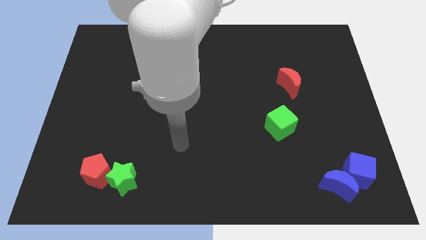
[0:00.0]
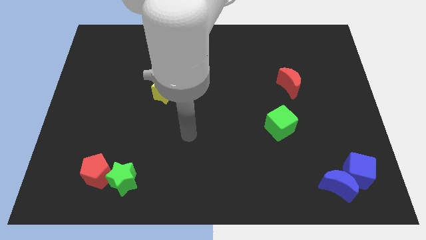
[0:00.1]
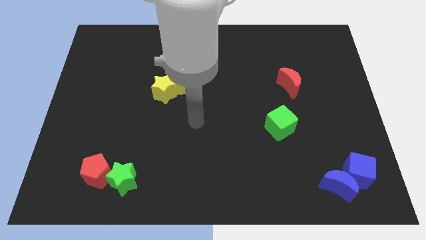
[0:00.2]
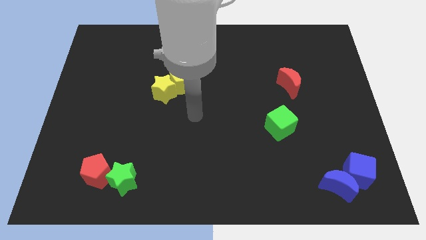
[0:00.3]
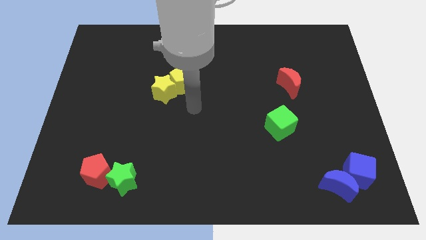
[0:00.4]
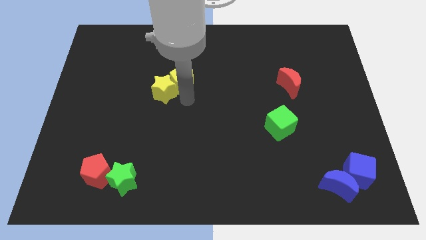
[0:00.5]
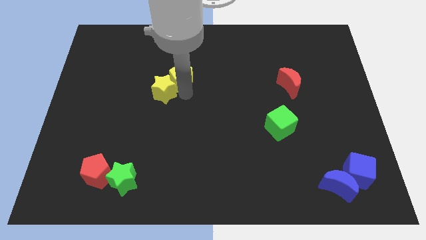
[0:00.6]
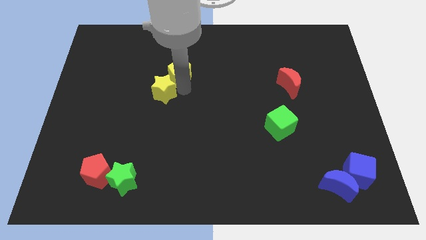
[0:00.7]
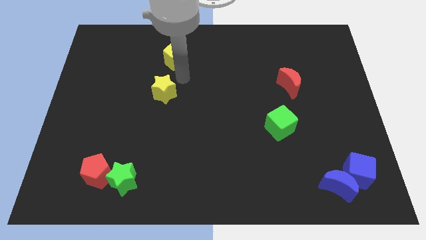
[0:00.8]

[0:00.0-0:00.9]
move the yellow star away from the yellow pentagon

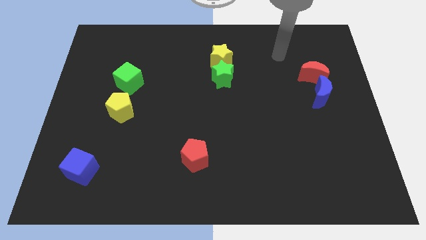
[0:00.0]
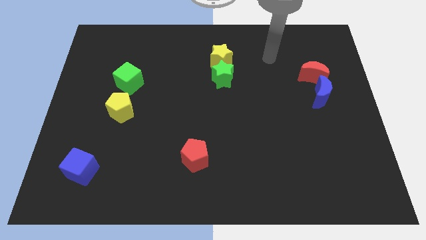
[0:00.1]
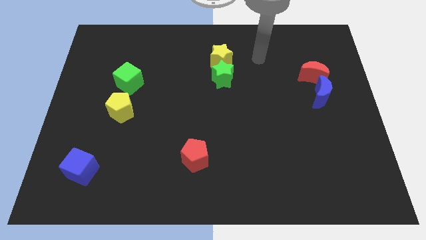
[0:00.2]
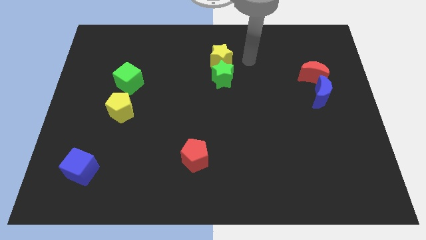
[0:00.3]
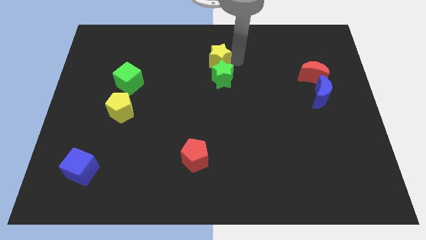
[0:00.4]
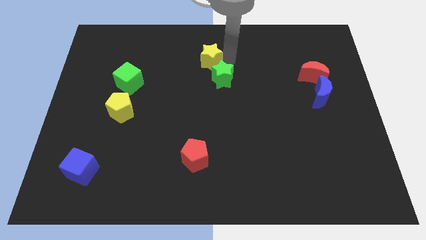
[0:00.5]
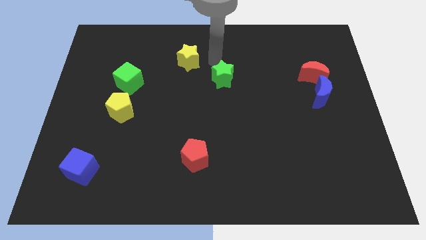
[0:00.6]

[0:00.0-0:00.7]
separate the green star from the yellow star

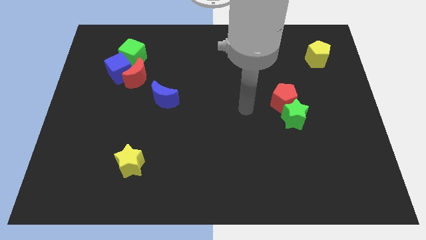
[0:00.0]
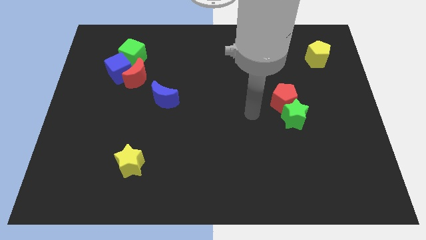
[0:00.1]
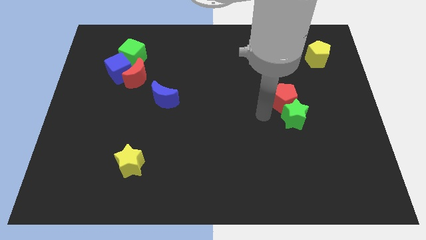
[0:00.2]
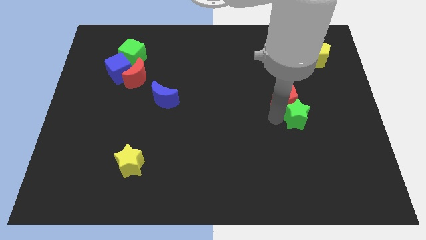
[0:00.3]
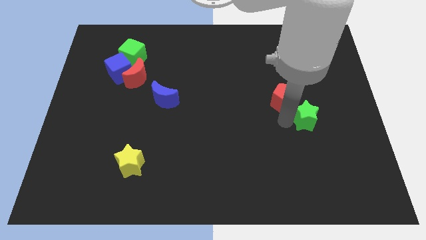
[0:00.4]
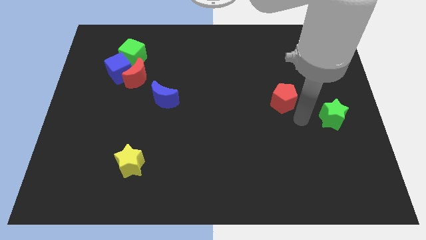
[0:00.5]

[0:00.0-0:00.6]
pull the red pentagon apart from the green star

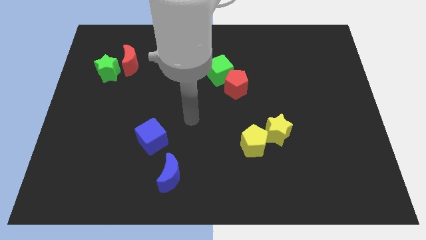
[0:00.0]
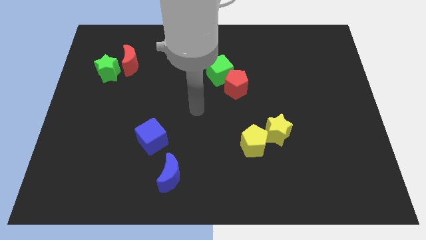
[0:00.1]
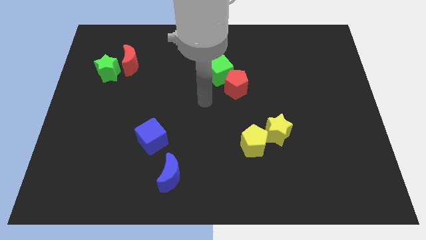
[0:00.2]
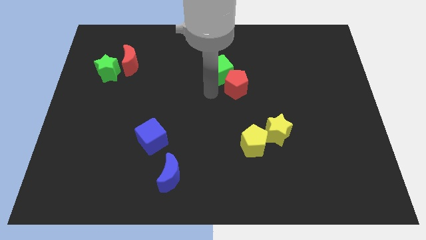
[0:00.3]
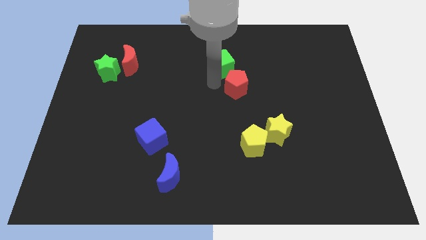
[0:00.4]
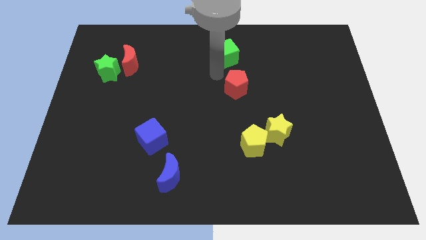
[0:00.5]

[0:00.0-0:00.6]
move the red pentagon away from the green cube

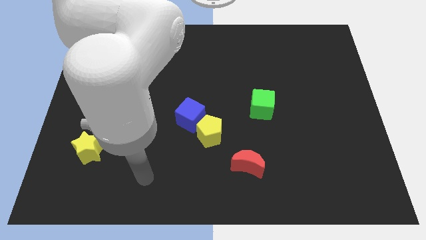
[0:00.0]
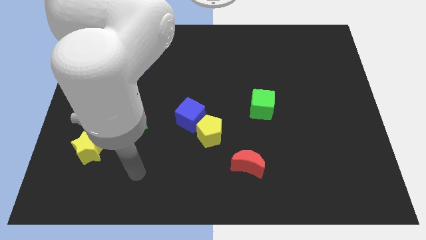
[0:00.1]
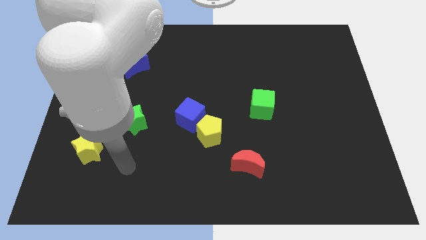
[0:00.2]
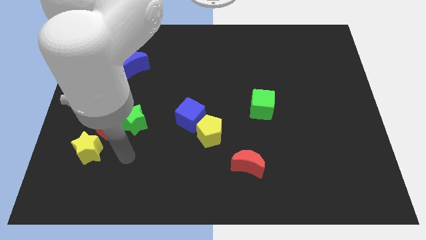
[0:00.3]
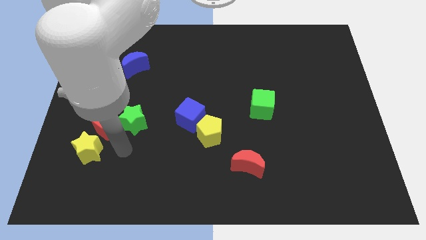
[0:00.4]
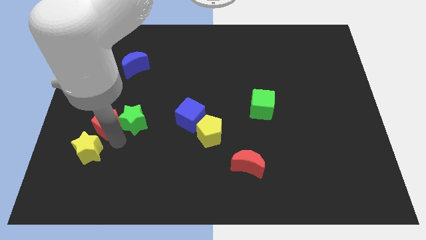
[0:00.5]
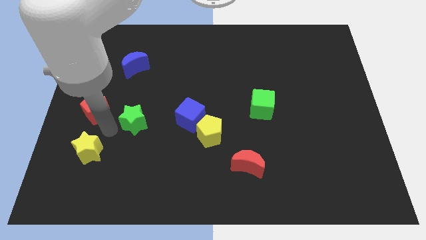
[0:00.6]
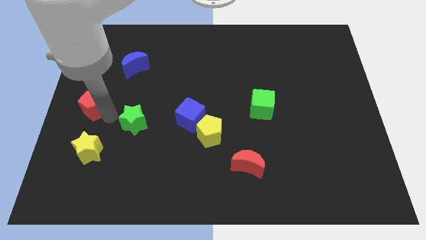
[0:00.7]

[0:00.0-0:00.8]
pull the green star apart from the red pentagon

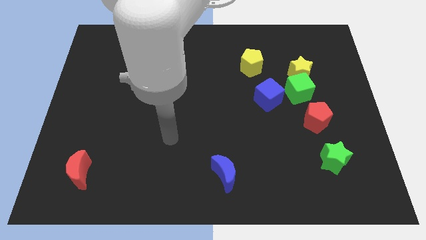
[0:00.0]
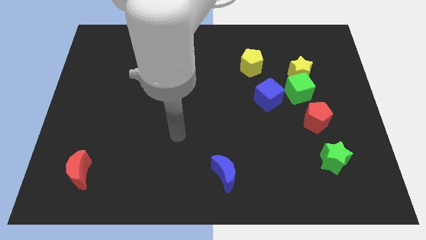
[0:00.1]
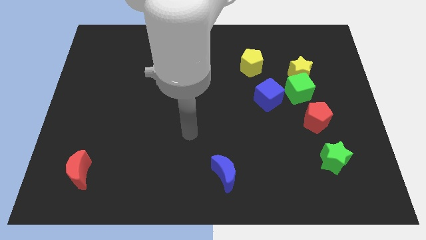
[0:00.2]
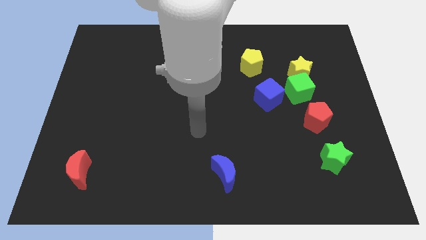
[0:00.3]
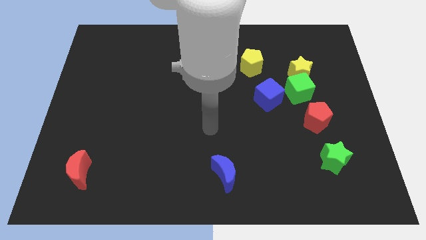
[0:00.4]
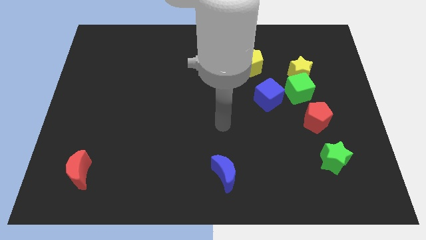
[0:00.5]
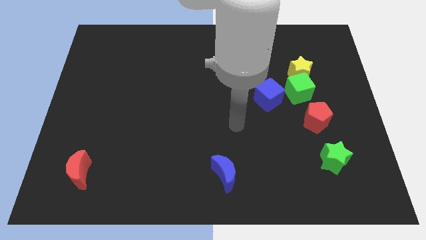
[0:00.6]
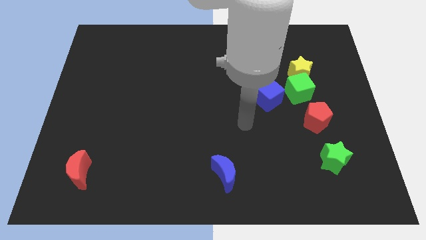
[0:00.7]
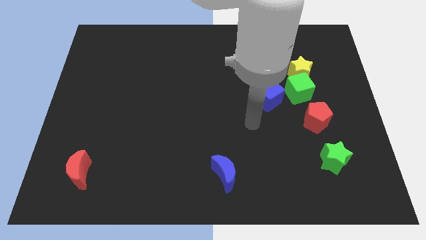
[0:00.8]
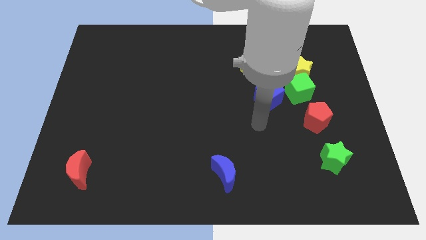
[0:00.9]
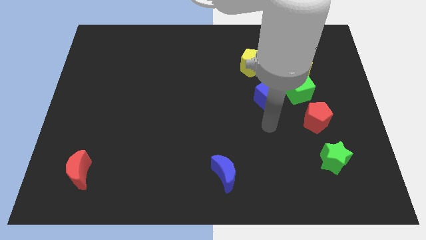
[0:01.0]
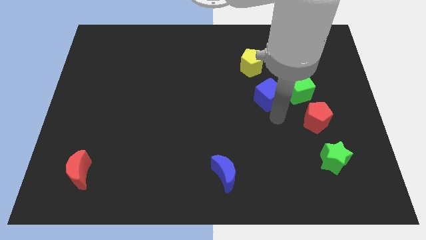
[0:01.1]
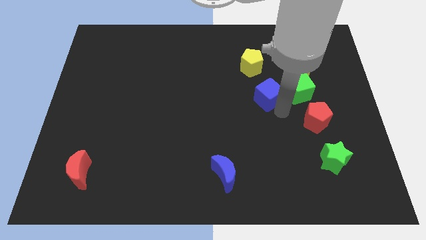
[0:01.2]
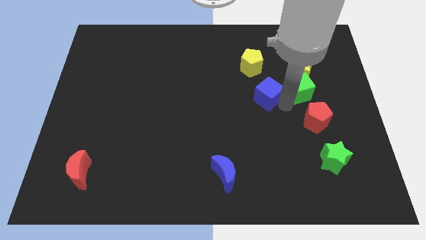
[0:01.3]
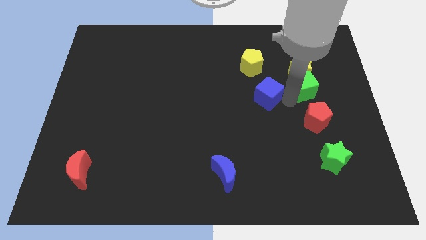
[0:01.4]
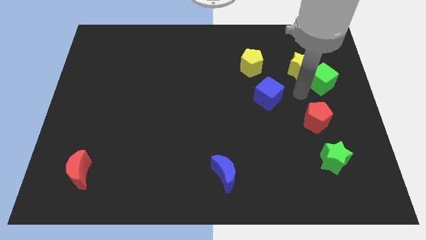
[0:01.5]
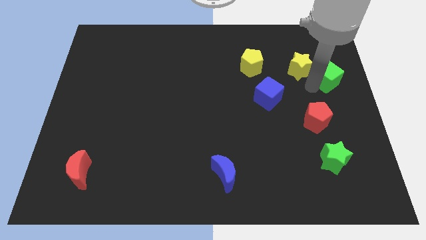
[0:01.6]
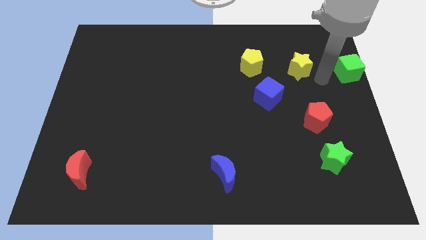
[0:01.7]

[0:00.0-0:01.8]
pull the yellow star apart from the green cube

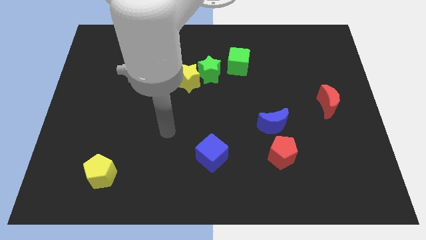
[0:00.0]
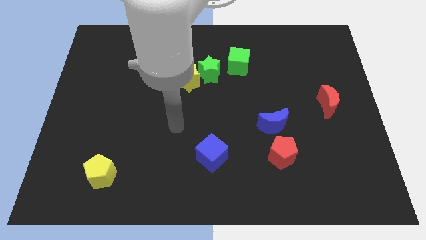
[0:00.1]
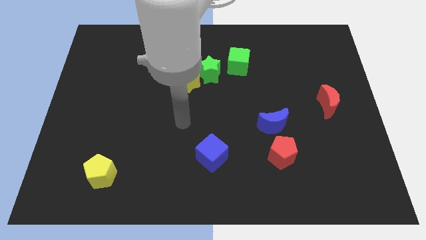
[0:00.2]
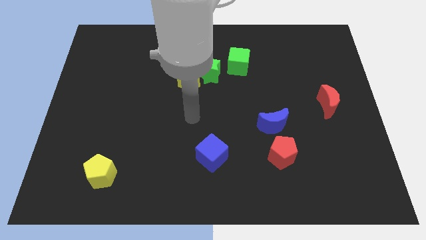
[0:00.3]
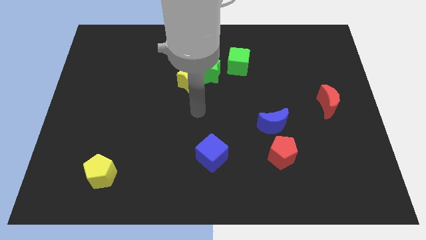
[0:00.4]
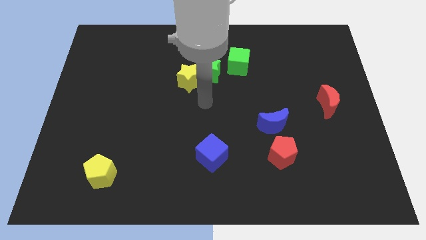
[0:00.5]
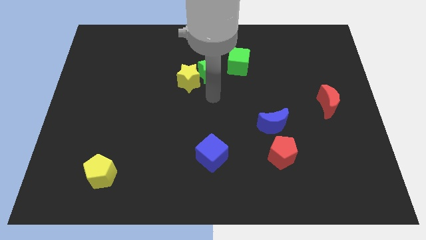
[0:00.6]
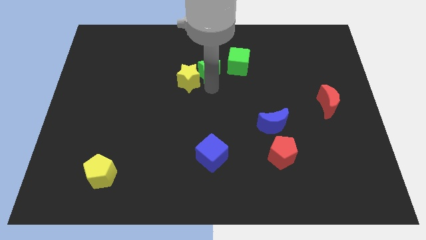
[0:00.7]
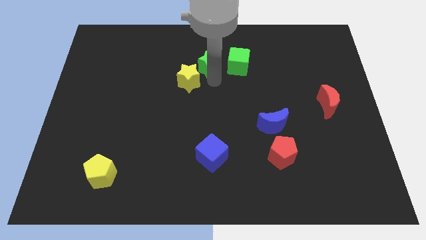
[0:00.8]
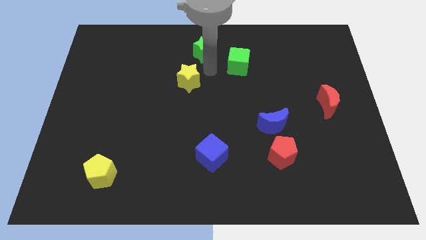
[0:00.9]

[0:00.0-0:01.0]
move the yellow star away from the green star

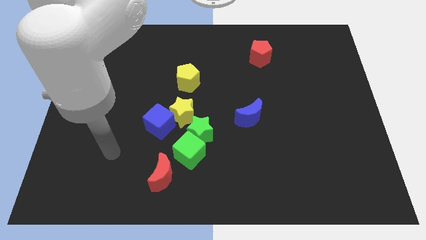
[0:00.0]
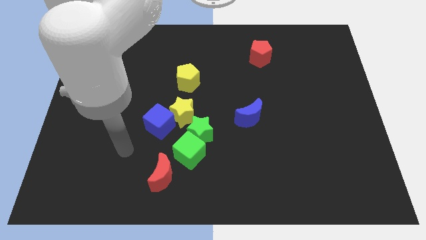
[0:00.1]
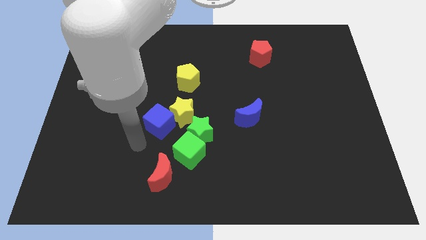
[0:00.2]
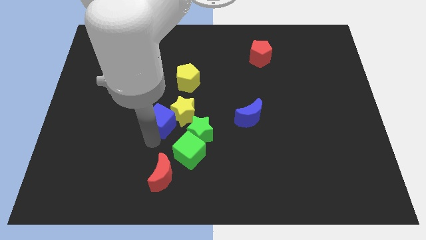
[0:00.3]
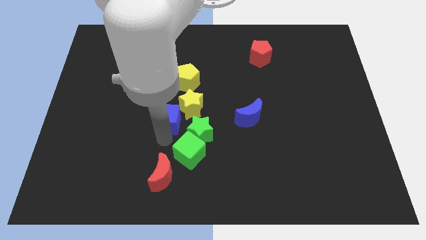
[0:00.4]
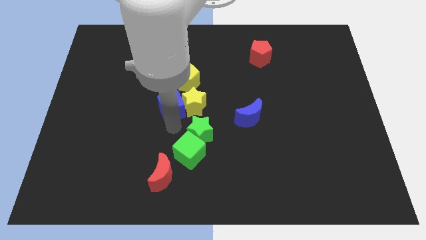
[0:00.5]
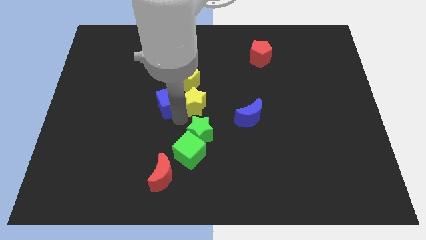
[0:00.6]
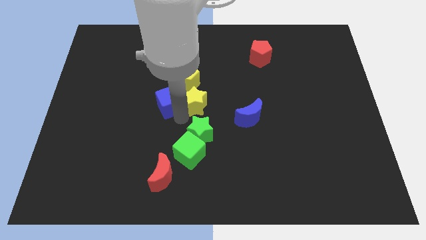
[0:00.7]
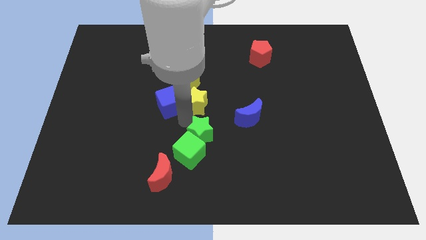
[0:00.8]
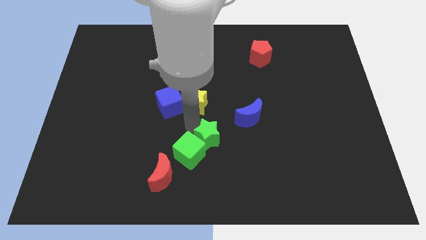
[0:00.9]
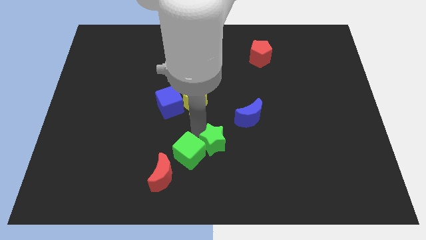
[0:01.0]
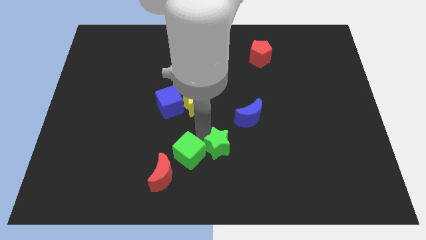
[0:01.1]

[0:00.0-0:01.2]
separate the green star from the group of blocks

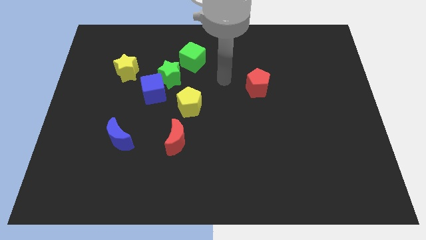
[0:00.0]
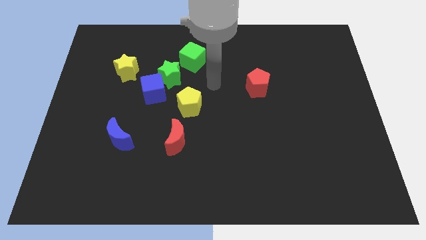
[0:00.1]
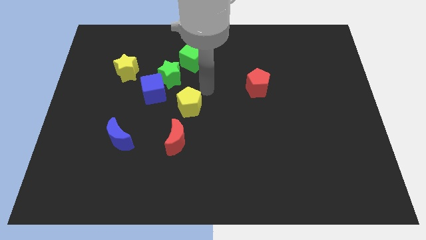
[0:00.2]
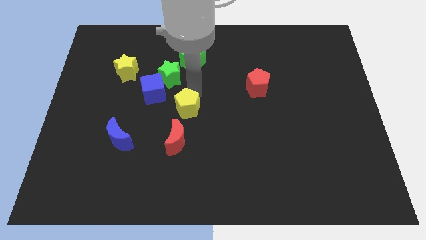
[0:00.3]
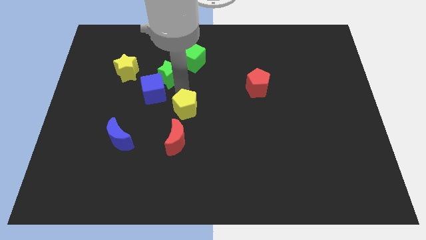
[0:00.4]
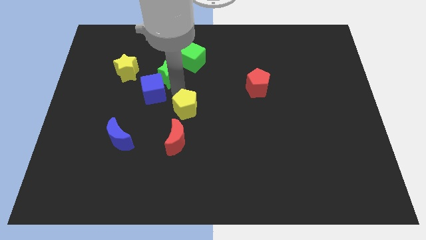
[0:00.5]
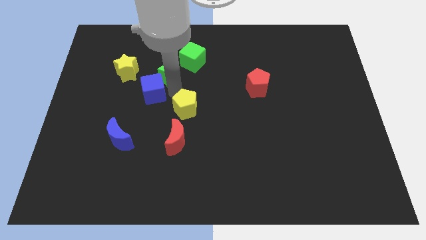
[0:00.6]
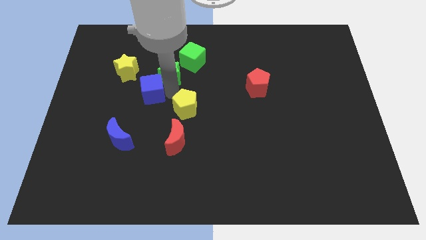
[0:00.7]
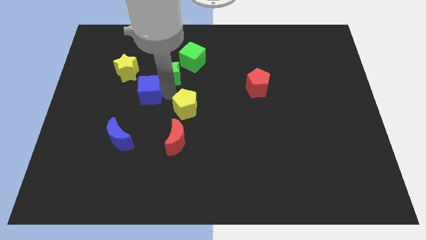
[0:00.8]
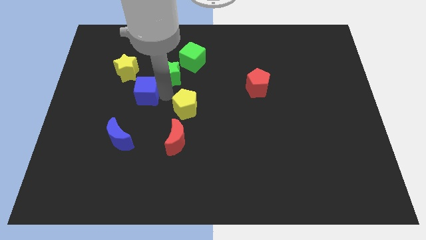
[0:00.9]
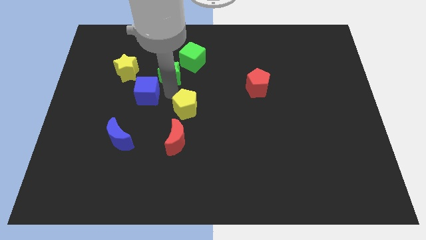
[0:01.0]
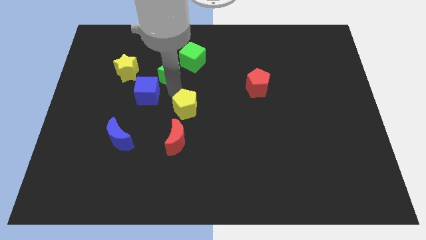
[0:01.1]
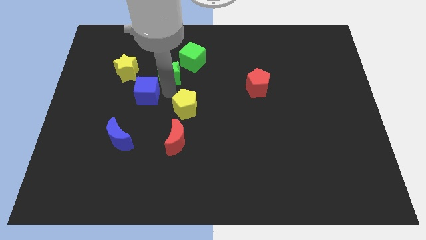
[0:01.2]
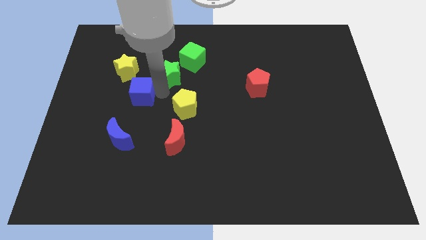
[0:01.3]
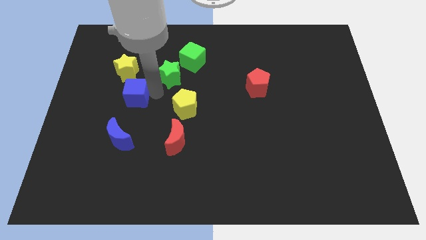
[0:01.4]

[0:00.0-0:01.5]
pull the blue cube apart from the green star and yellow pentagon

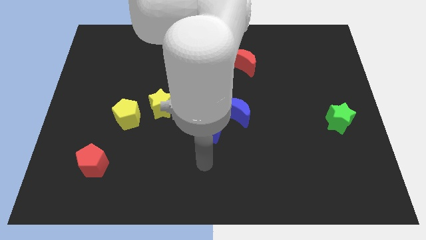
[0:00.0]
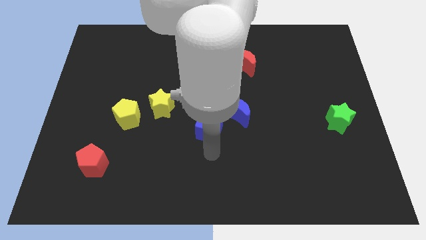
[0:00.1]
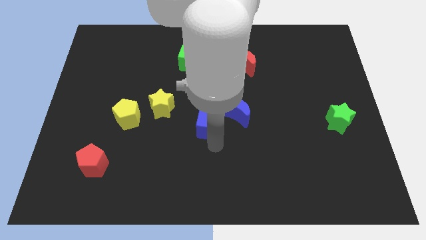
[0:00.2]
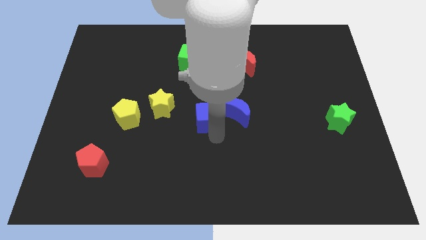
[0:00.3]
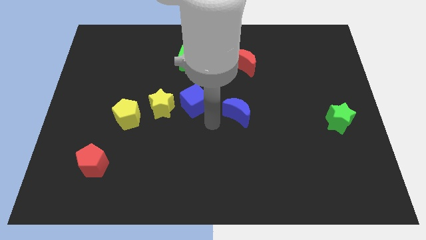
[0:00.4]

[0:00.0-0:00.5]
move the blue moon away from the blue cube
